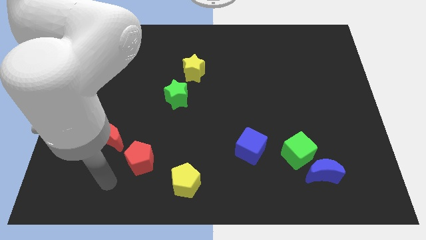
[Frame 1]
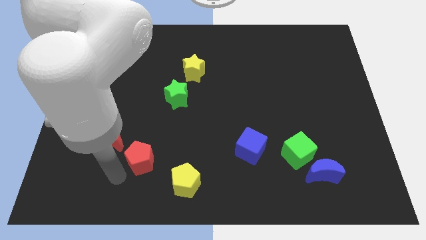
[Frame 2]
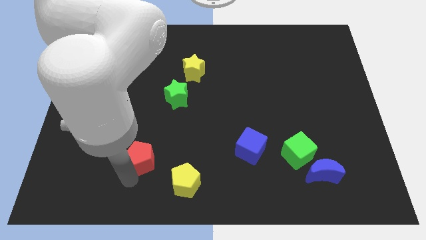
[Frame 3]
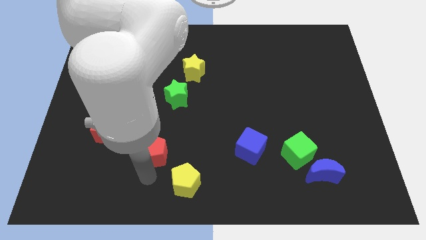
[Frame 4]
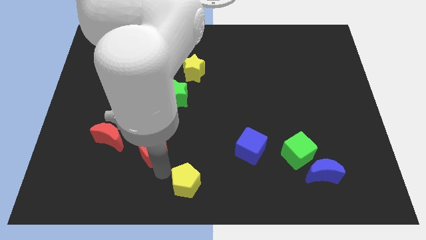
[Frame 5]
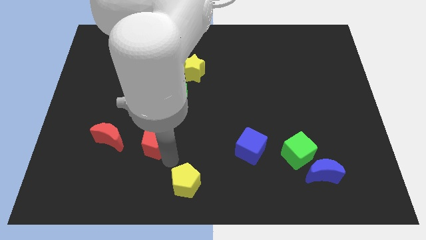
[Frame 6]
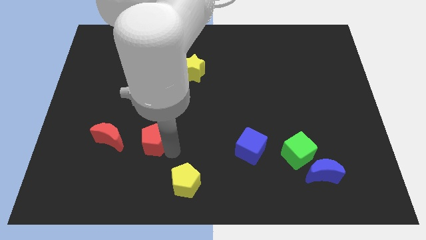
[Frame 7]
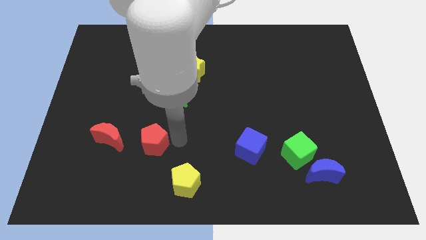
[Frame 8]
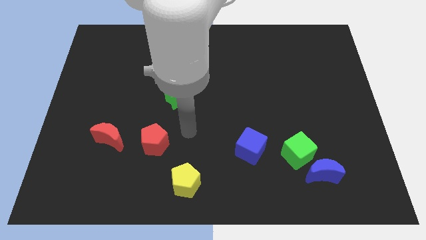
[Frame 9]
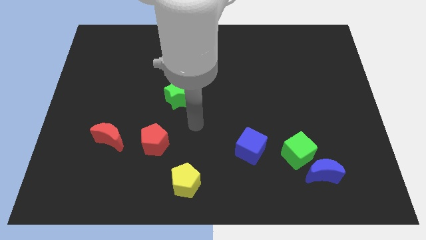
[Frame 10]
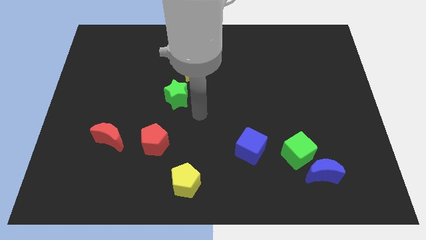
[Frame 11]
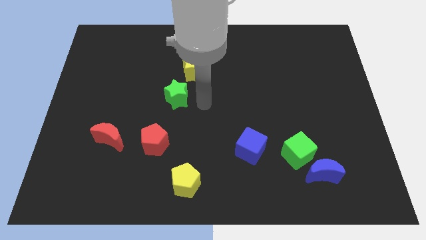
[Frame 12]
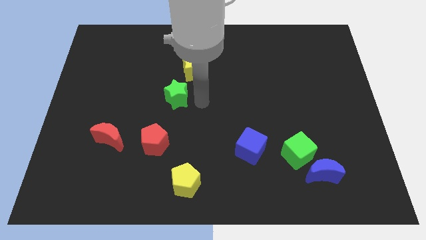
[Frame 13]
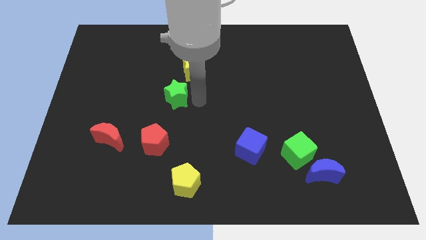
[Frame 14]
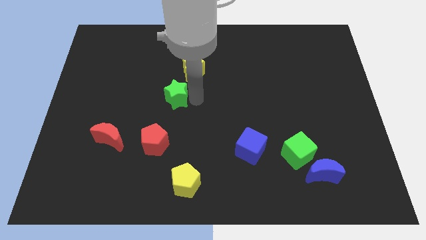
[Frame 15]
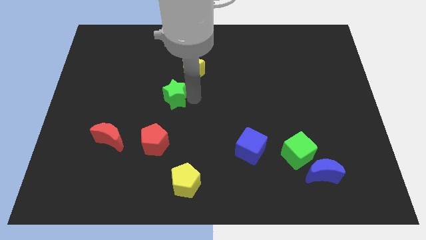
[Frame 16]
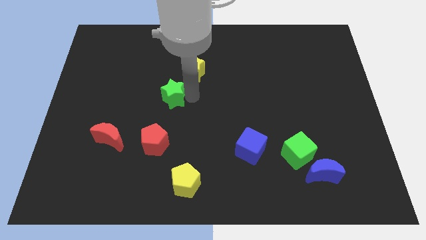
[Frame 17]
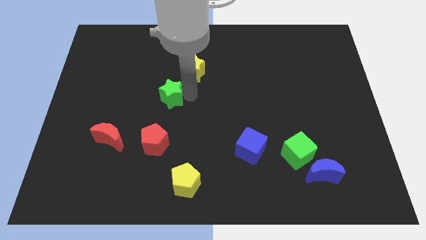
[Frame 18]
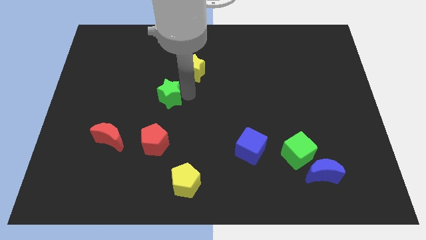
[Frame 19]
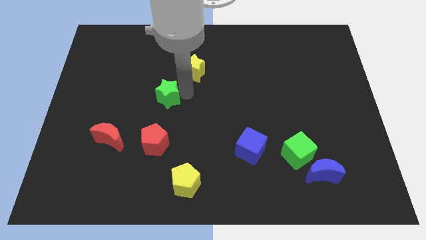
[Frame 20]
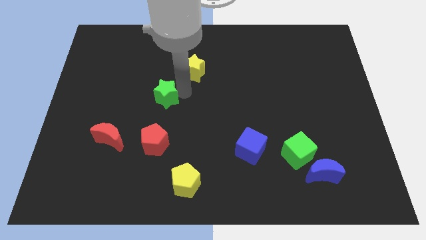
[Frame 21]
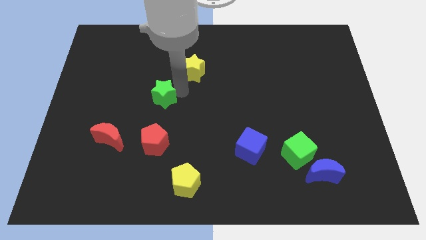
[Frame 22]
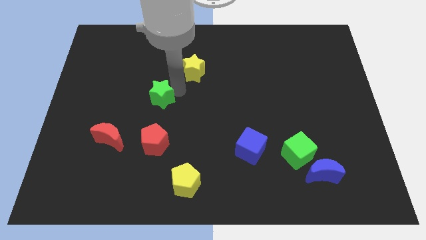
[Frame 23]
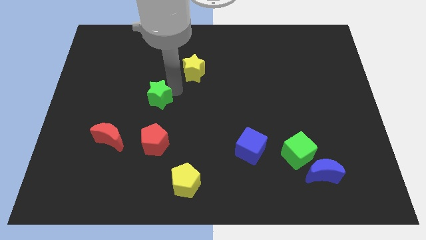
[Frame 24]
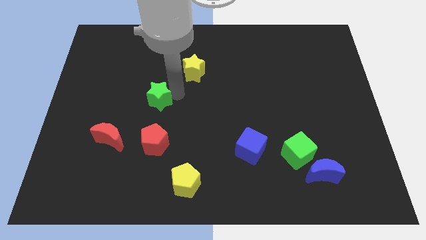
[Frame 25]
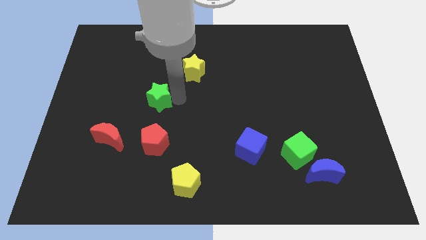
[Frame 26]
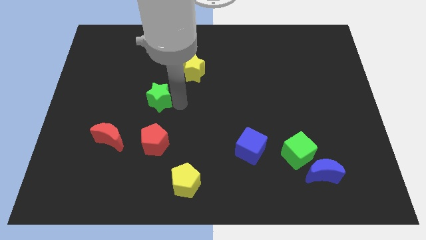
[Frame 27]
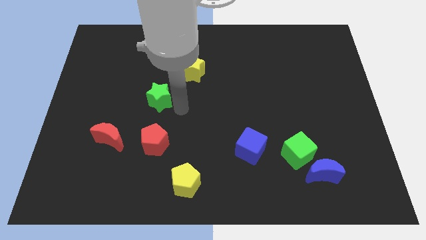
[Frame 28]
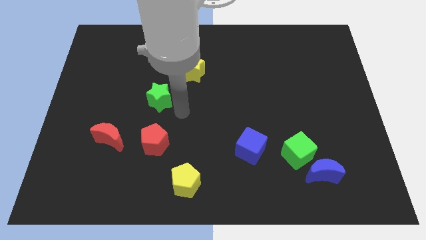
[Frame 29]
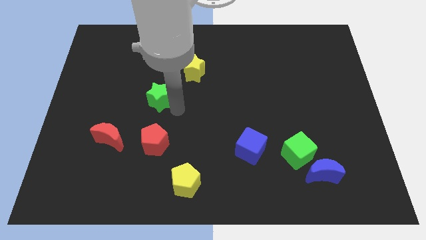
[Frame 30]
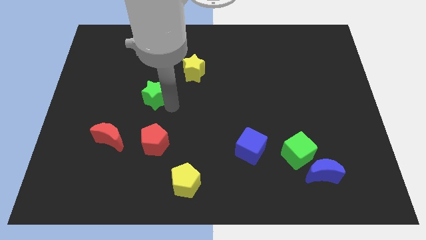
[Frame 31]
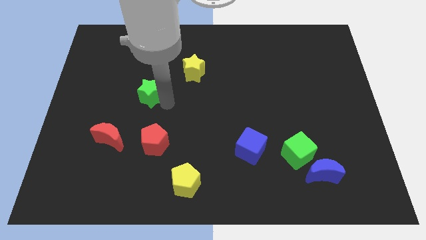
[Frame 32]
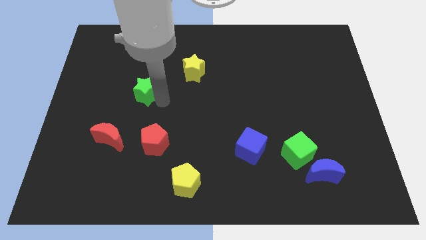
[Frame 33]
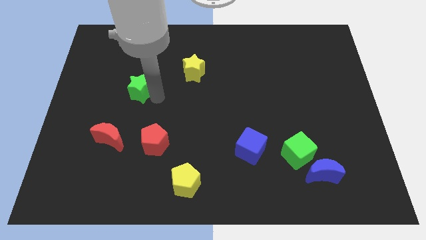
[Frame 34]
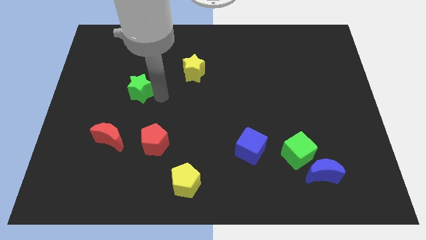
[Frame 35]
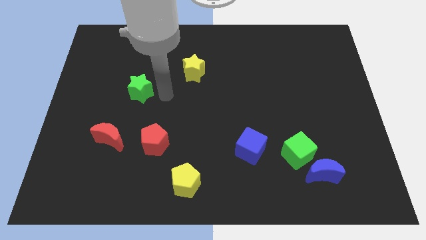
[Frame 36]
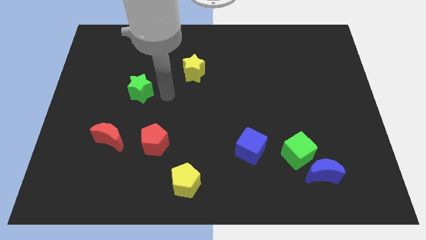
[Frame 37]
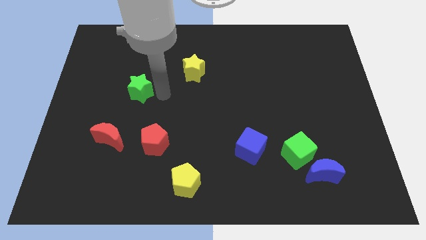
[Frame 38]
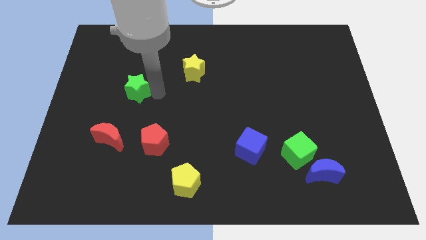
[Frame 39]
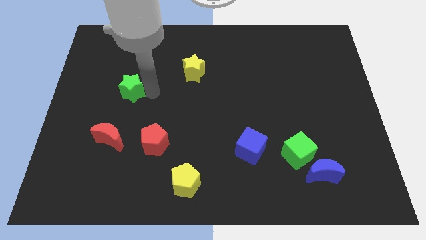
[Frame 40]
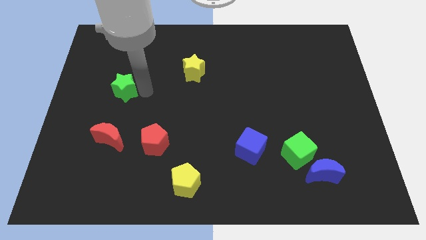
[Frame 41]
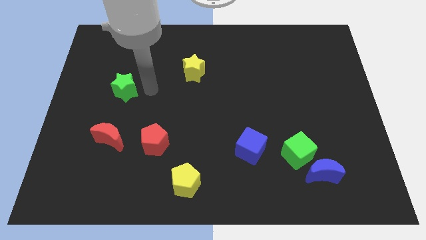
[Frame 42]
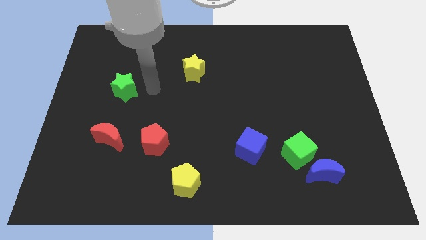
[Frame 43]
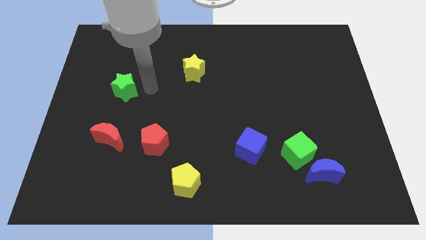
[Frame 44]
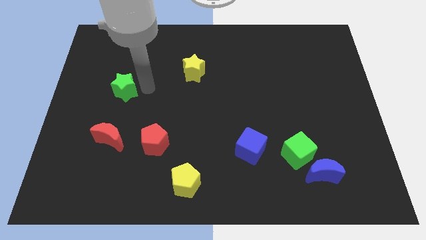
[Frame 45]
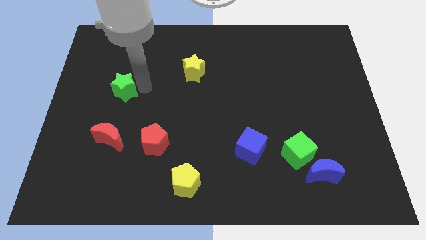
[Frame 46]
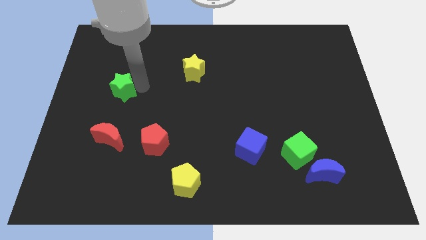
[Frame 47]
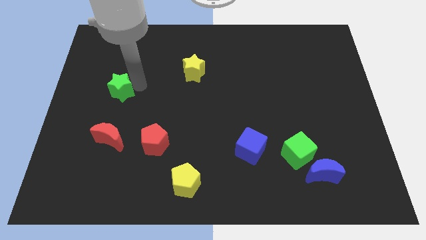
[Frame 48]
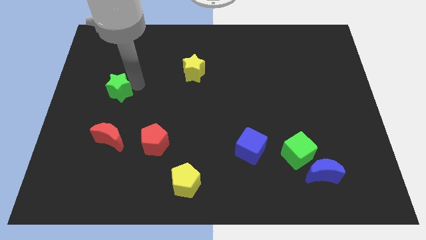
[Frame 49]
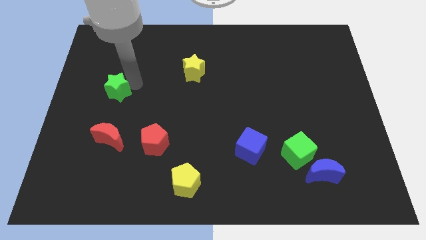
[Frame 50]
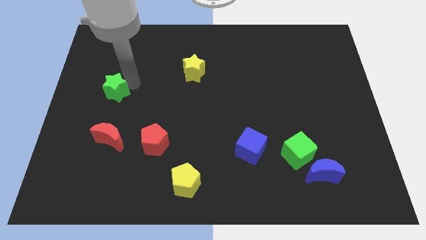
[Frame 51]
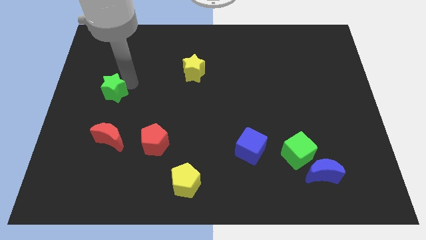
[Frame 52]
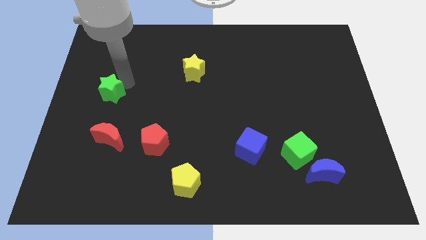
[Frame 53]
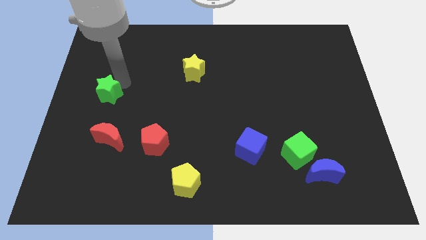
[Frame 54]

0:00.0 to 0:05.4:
push the green star to the left side

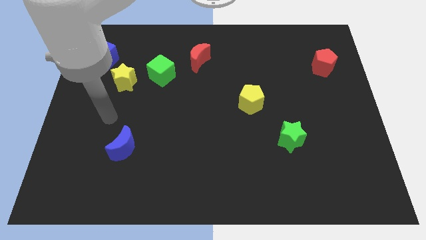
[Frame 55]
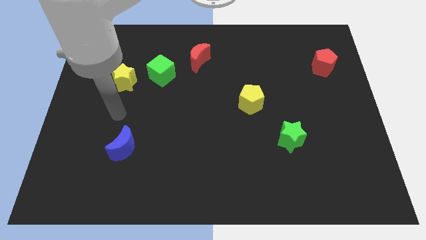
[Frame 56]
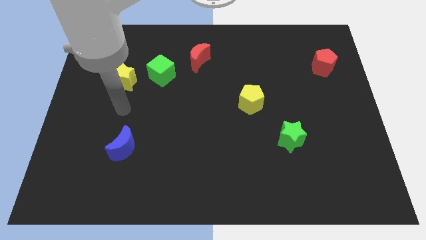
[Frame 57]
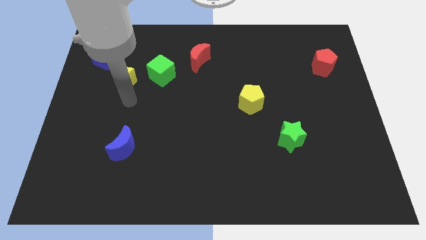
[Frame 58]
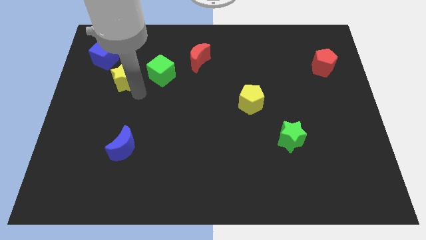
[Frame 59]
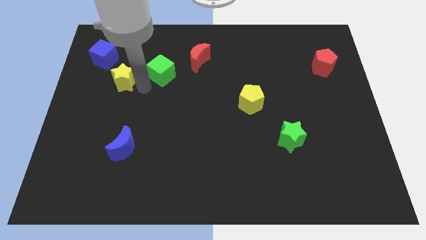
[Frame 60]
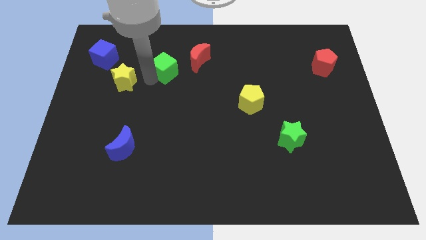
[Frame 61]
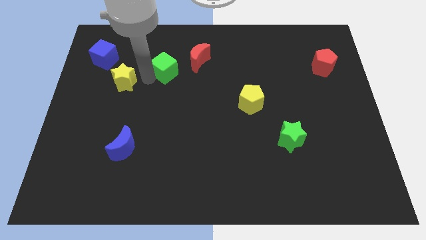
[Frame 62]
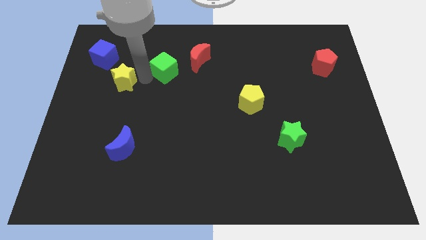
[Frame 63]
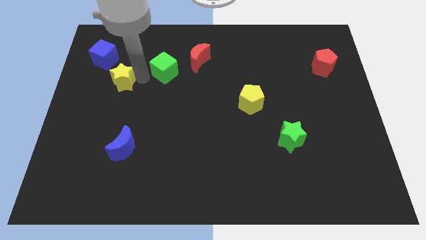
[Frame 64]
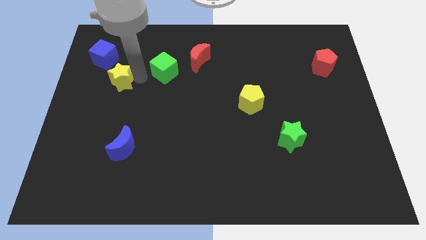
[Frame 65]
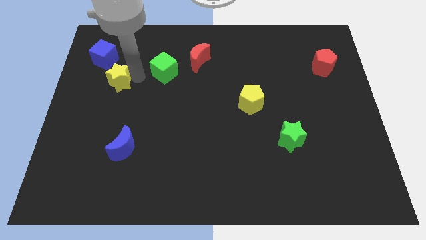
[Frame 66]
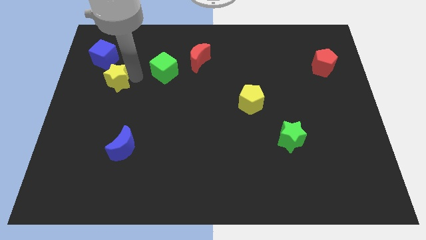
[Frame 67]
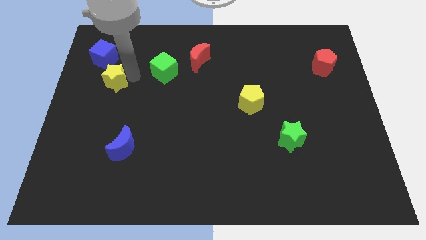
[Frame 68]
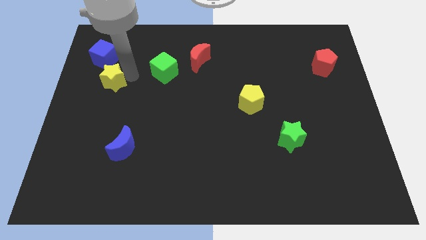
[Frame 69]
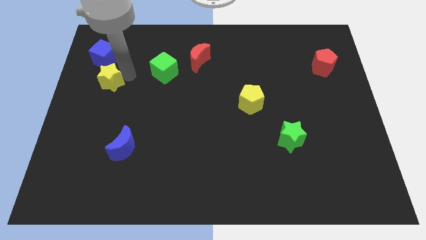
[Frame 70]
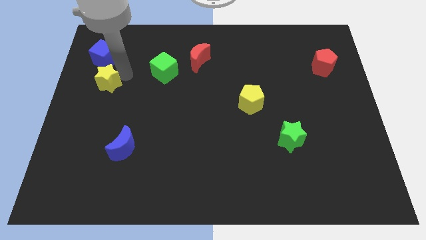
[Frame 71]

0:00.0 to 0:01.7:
push the yellow star to the left side

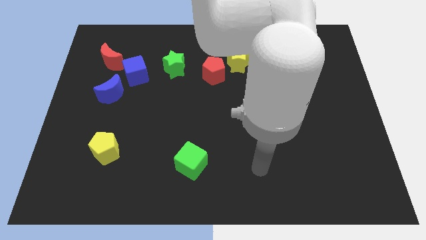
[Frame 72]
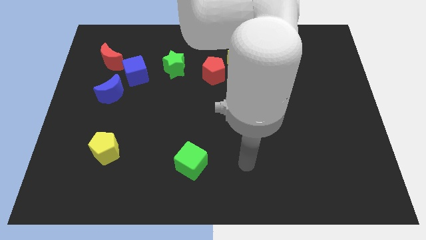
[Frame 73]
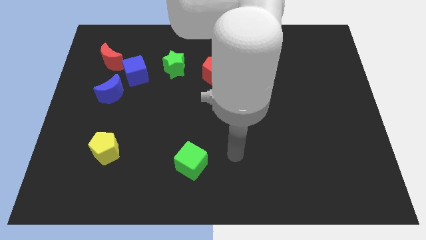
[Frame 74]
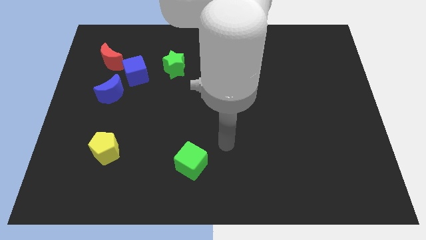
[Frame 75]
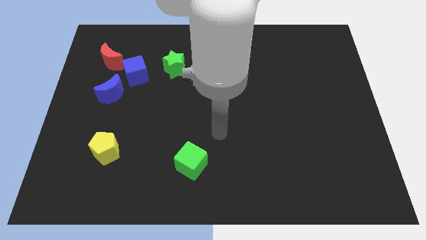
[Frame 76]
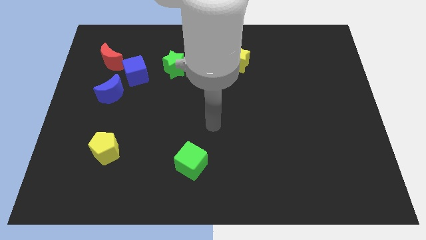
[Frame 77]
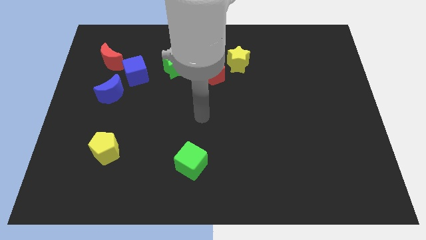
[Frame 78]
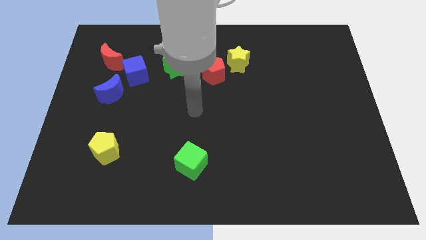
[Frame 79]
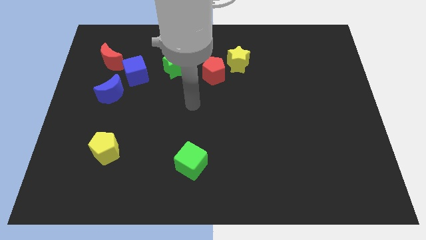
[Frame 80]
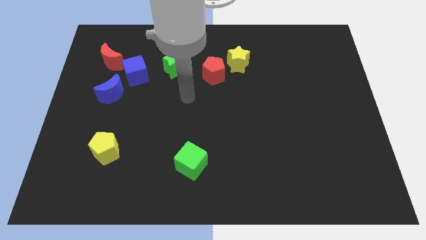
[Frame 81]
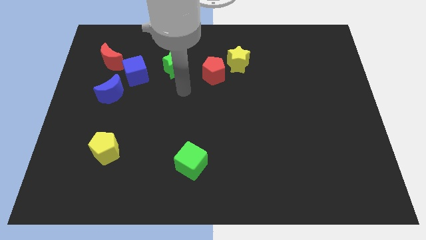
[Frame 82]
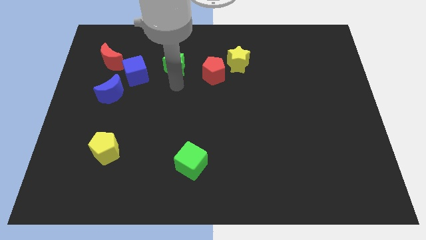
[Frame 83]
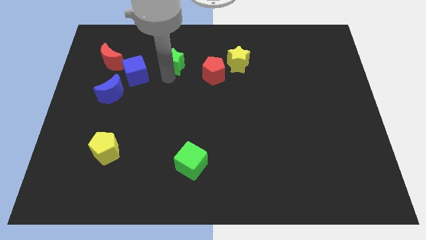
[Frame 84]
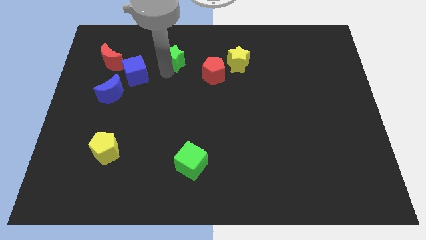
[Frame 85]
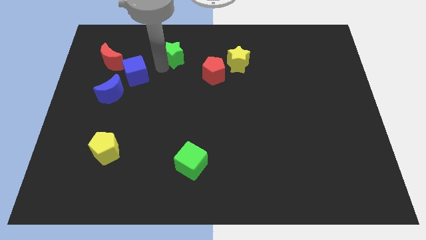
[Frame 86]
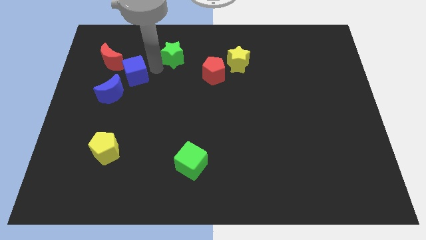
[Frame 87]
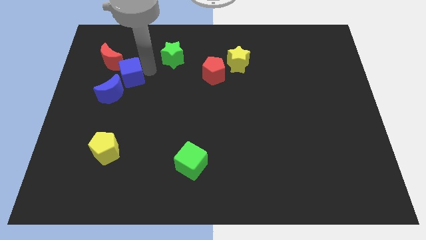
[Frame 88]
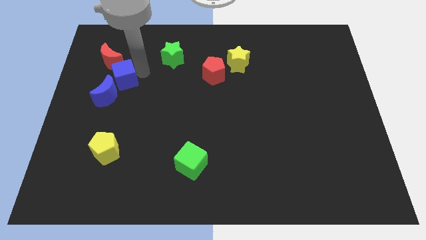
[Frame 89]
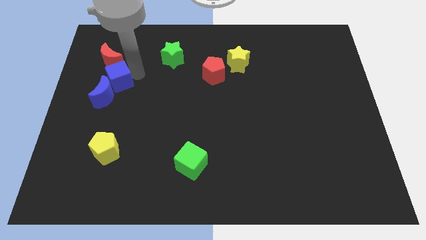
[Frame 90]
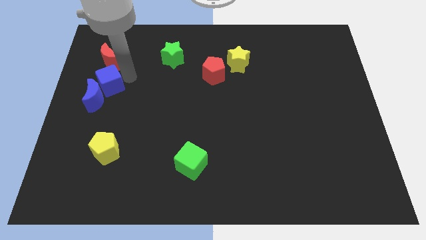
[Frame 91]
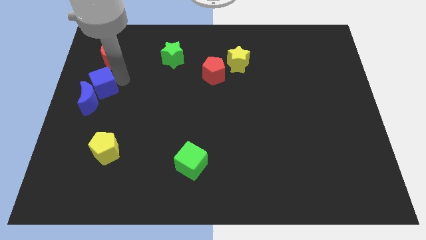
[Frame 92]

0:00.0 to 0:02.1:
slide the blue cube to the center left
